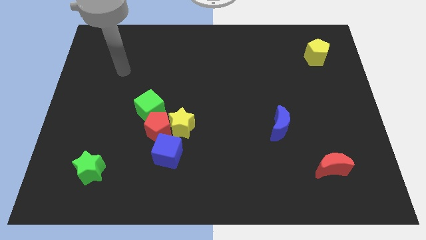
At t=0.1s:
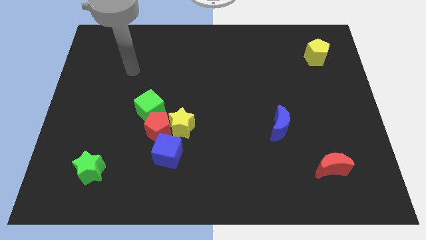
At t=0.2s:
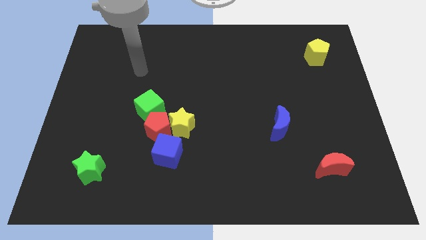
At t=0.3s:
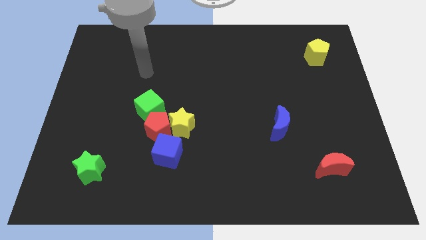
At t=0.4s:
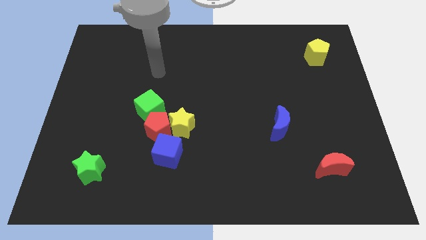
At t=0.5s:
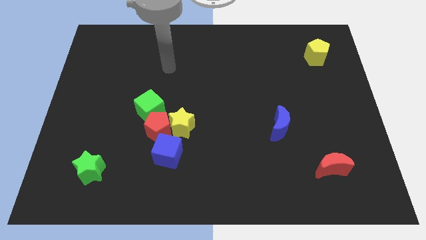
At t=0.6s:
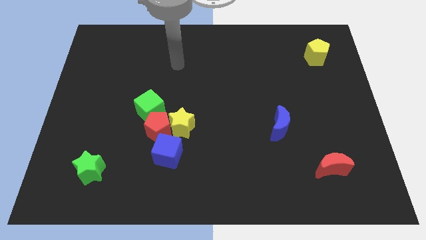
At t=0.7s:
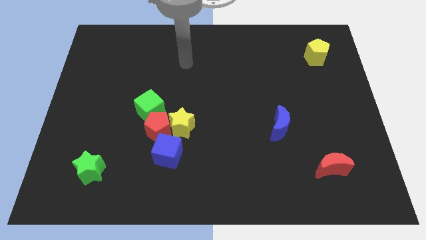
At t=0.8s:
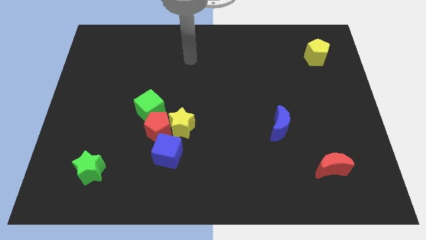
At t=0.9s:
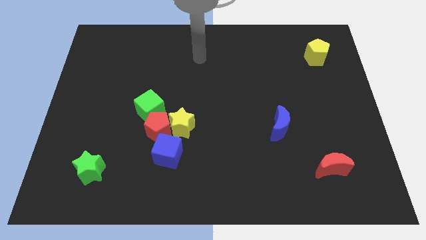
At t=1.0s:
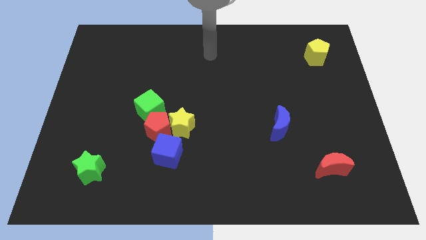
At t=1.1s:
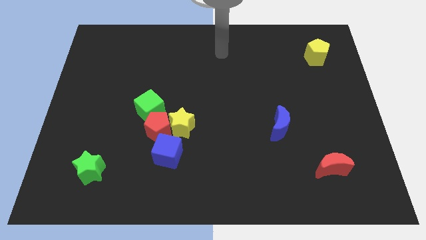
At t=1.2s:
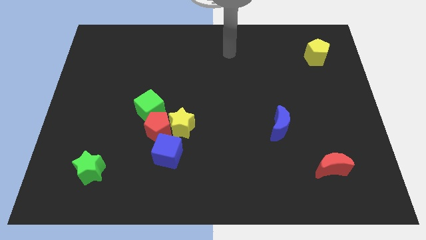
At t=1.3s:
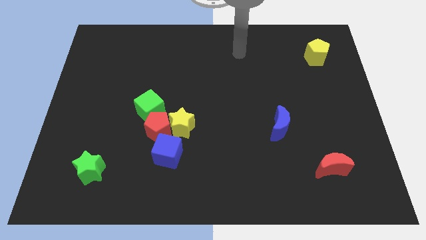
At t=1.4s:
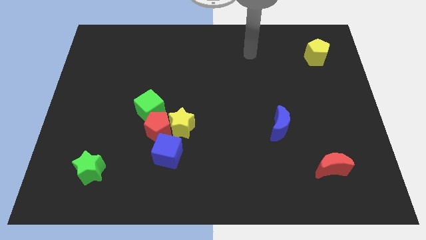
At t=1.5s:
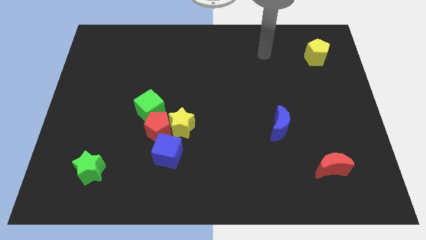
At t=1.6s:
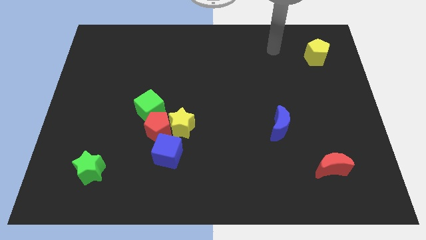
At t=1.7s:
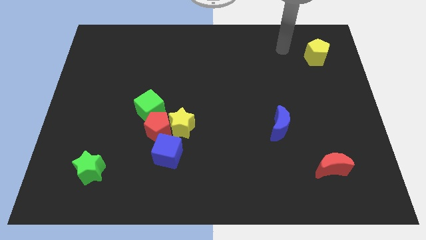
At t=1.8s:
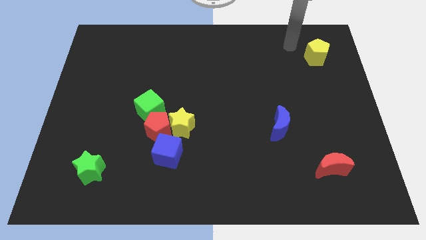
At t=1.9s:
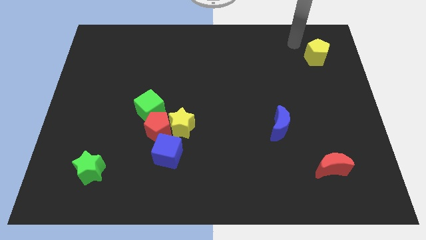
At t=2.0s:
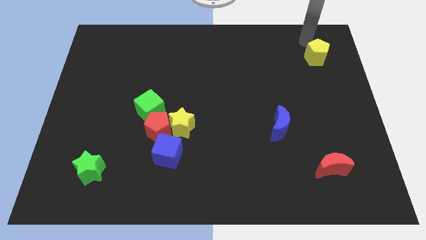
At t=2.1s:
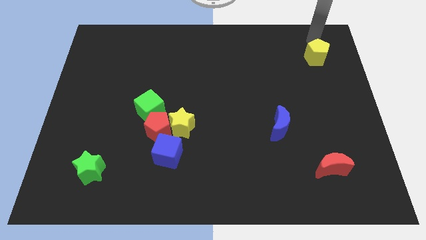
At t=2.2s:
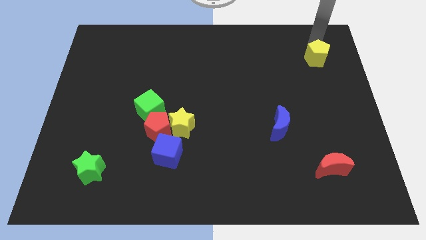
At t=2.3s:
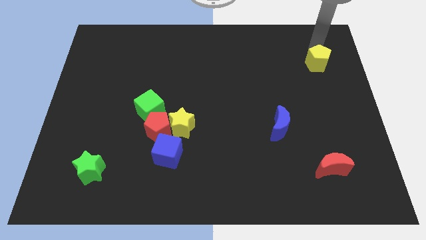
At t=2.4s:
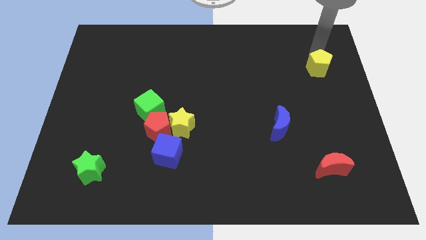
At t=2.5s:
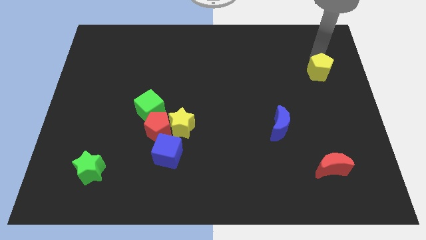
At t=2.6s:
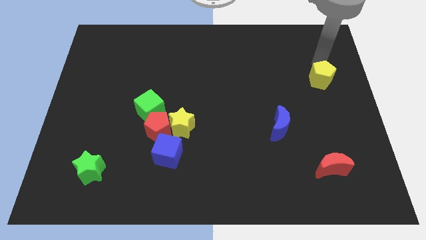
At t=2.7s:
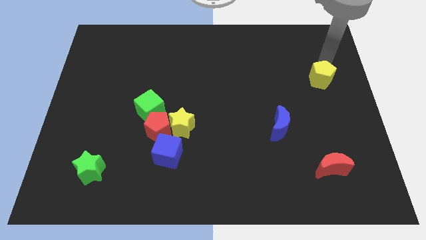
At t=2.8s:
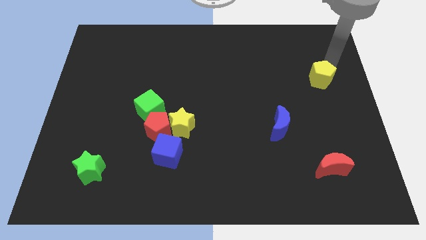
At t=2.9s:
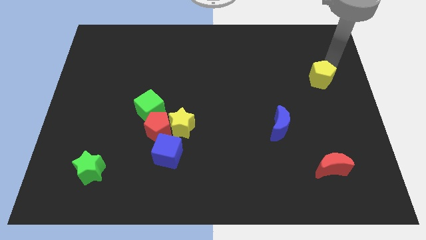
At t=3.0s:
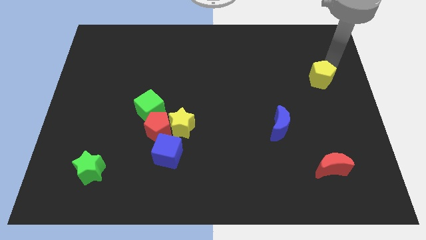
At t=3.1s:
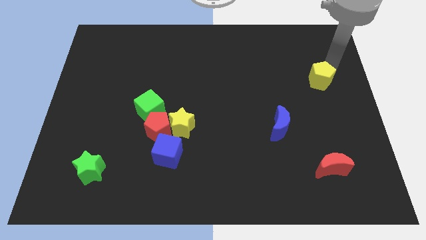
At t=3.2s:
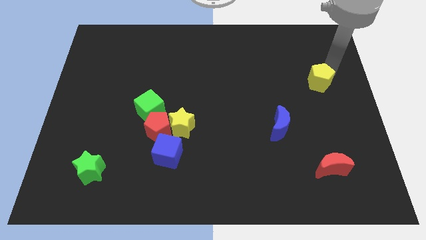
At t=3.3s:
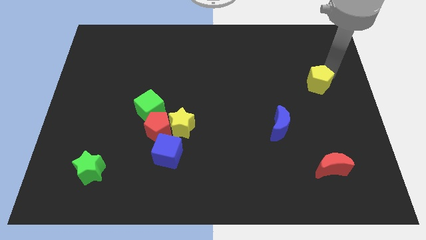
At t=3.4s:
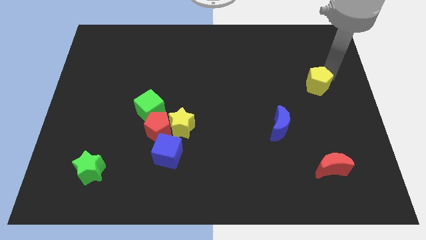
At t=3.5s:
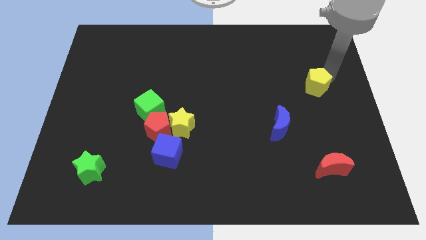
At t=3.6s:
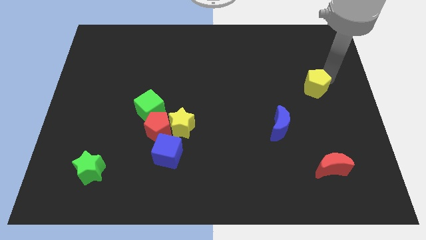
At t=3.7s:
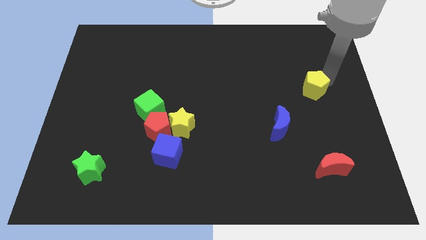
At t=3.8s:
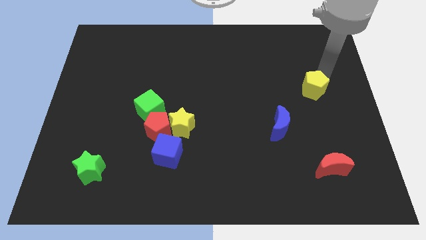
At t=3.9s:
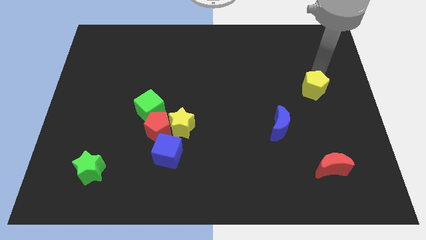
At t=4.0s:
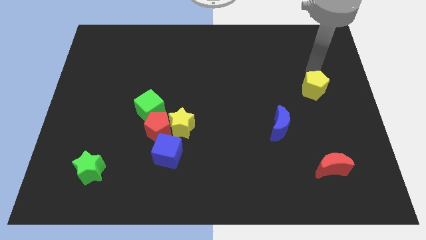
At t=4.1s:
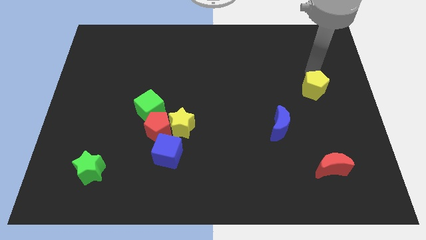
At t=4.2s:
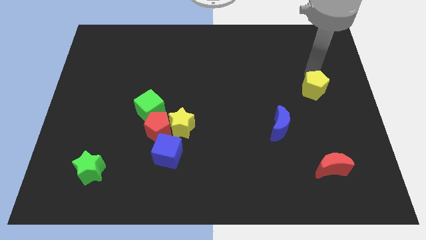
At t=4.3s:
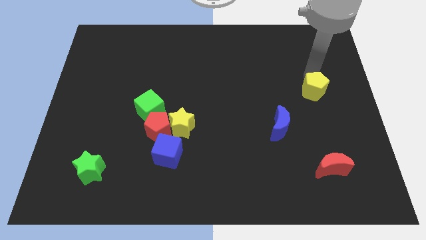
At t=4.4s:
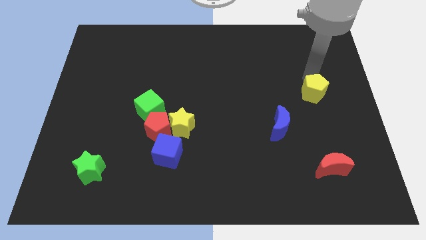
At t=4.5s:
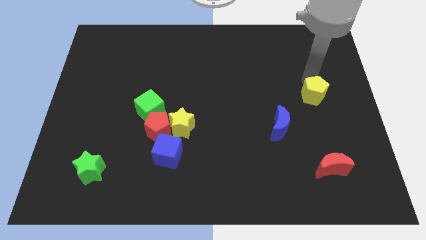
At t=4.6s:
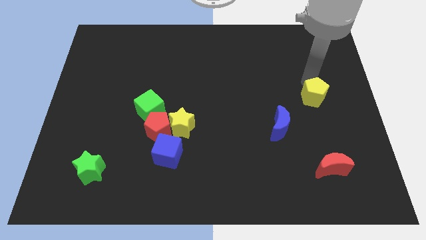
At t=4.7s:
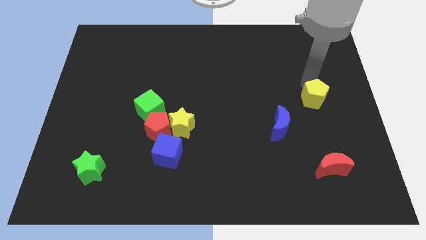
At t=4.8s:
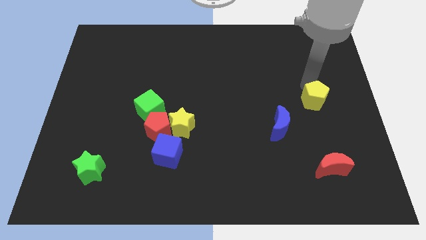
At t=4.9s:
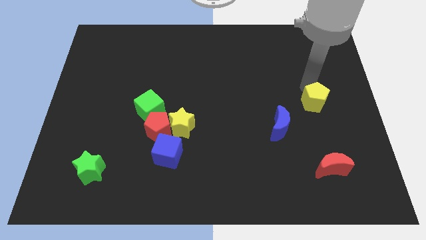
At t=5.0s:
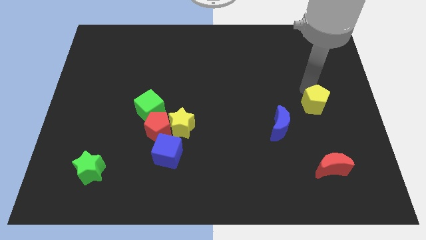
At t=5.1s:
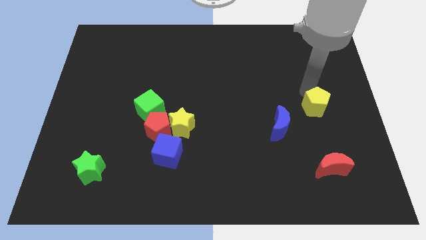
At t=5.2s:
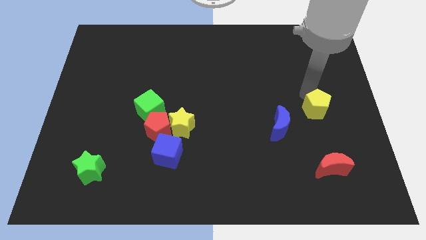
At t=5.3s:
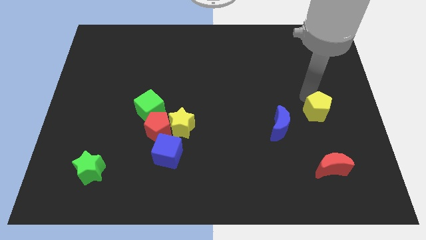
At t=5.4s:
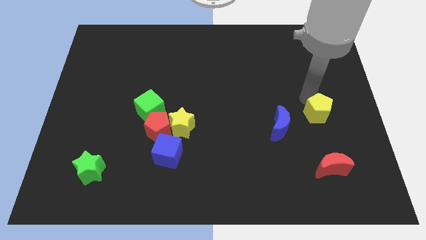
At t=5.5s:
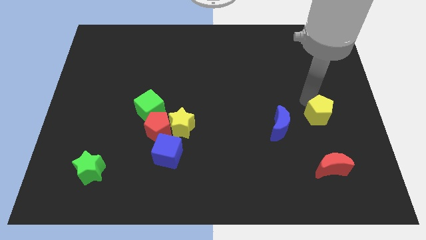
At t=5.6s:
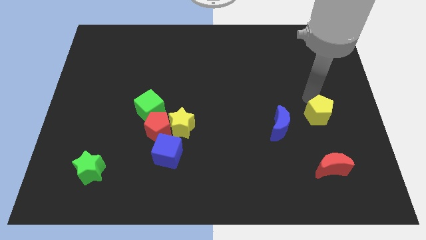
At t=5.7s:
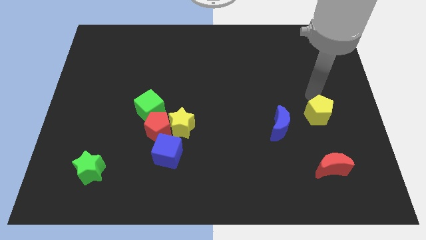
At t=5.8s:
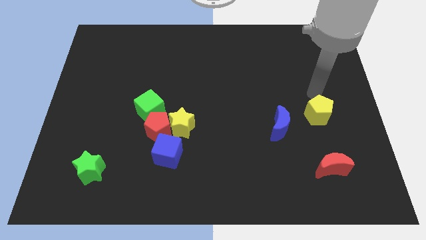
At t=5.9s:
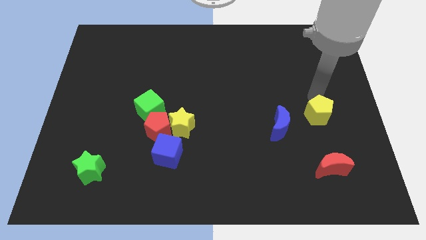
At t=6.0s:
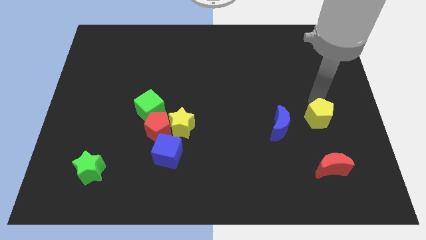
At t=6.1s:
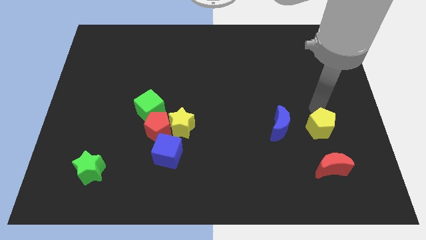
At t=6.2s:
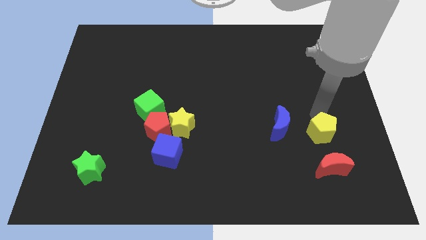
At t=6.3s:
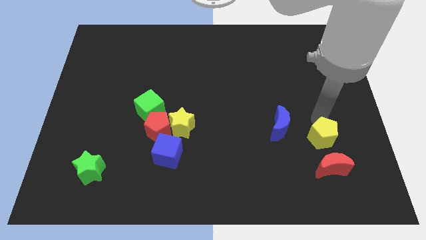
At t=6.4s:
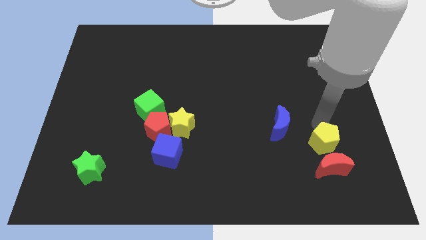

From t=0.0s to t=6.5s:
put the yellow pentagon next to the red moon

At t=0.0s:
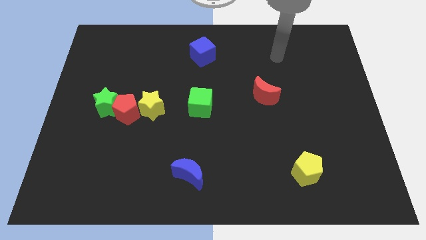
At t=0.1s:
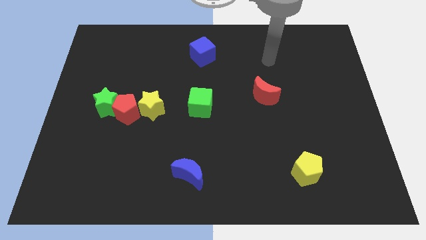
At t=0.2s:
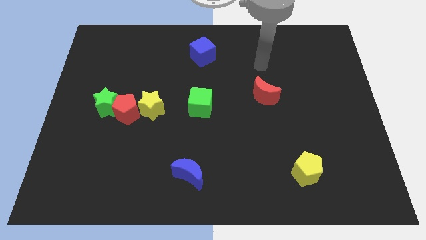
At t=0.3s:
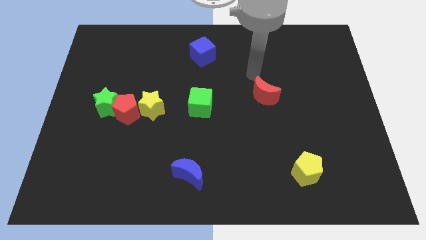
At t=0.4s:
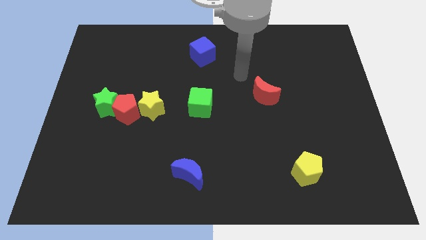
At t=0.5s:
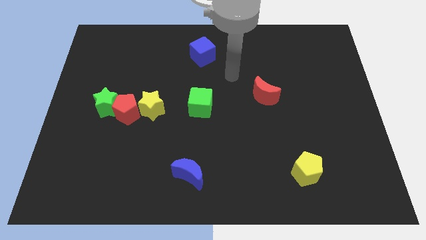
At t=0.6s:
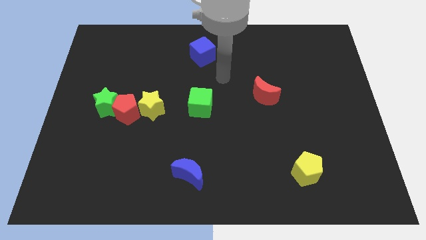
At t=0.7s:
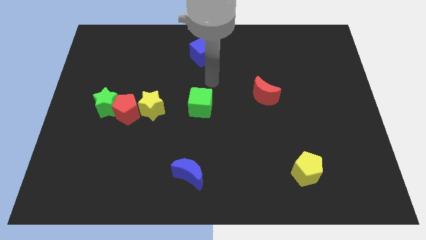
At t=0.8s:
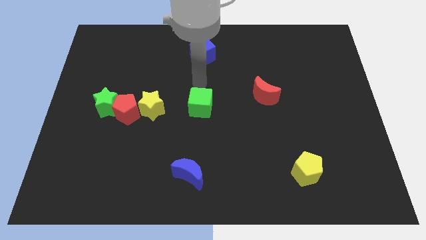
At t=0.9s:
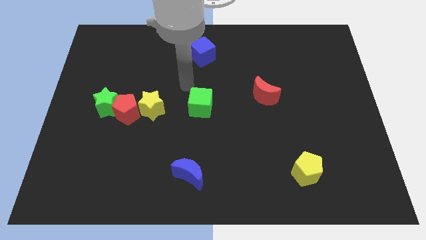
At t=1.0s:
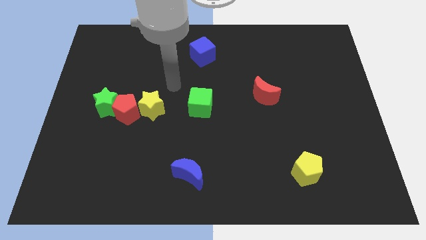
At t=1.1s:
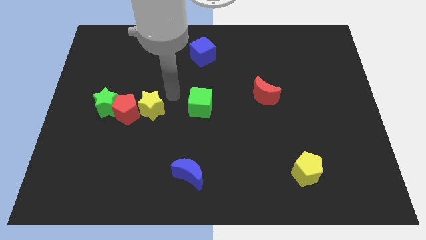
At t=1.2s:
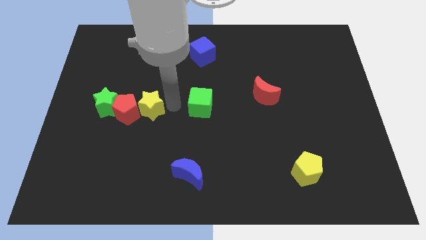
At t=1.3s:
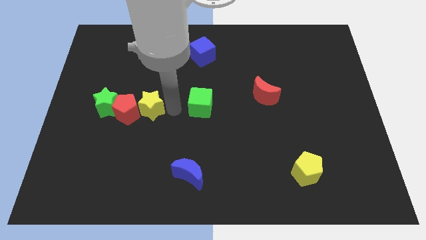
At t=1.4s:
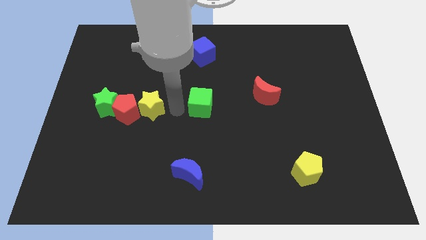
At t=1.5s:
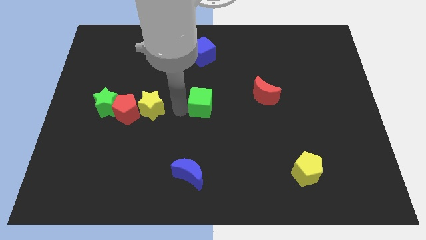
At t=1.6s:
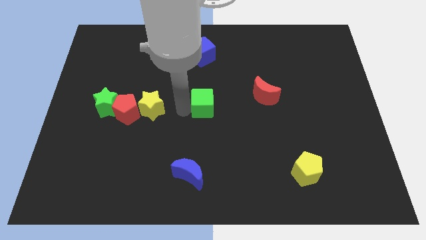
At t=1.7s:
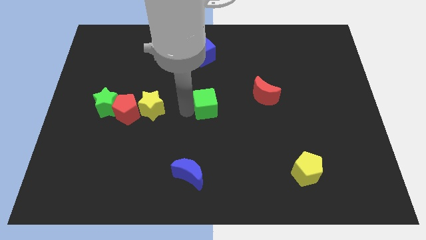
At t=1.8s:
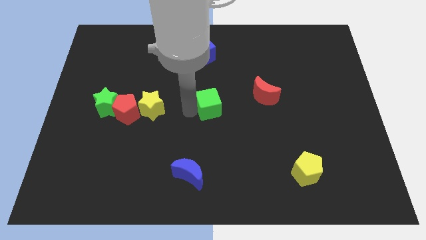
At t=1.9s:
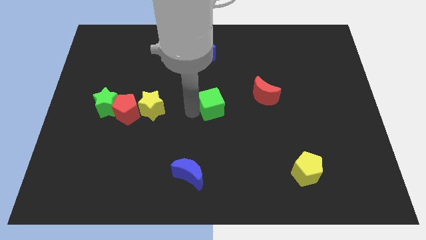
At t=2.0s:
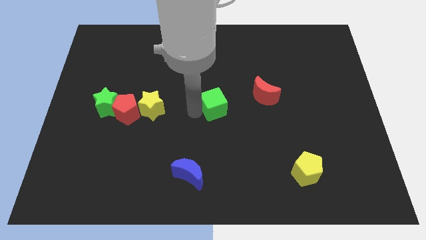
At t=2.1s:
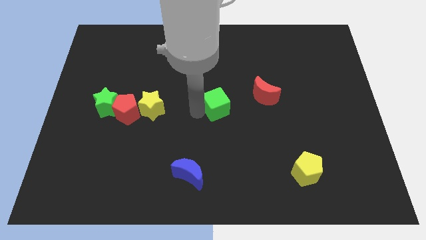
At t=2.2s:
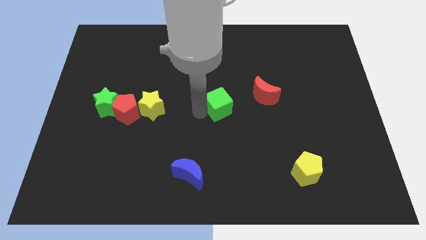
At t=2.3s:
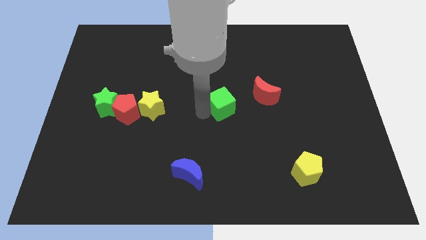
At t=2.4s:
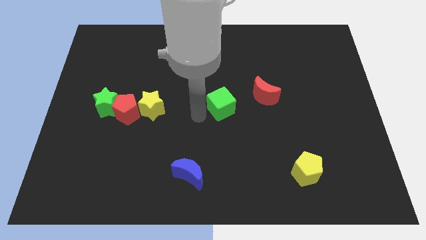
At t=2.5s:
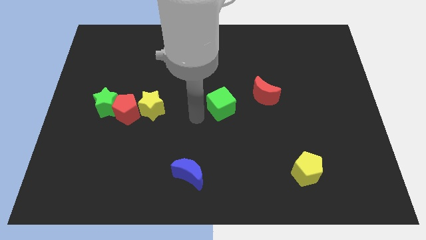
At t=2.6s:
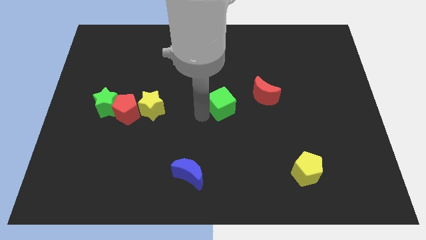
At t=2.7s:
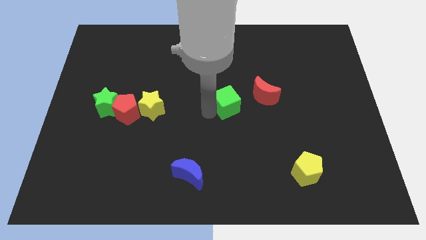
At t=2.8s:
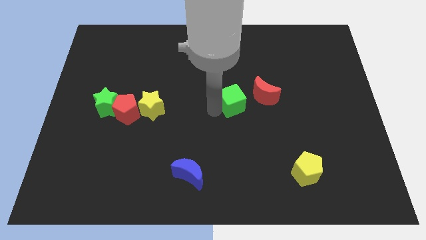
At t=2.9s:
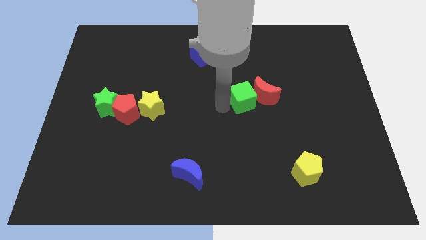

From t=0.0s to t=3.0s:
slide the green cube next to the red moon
